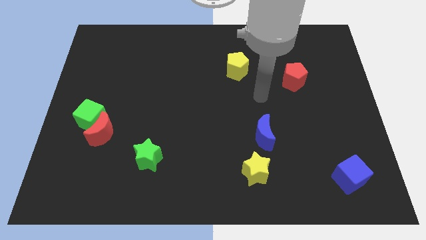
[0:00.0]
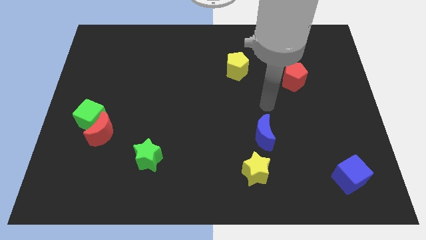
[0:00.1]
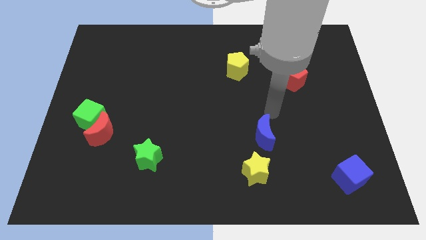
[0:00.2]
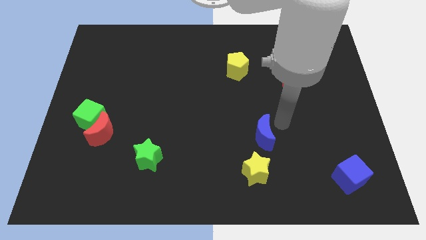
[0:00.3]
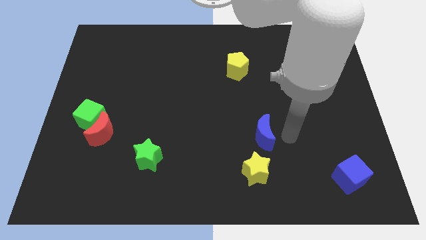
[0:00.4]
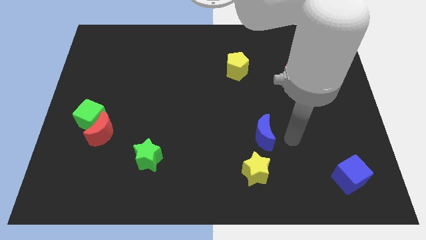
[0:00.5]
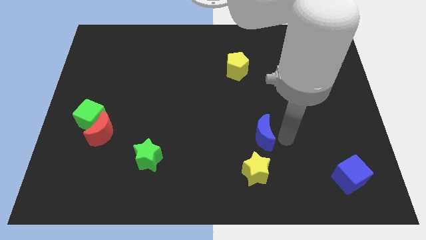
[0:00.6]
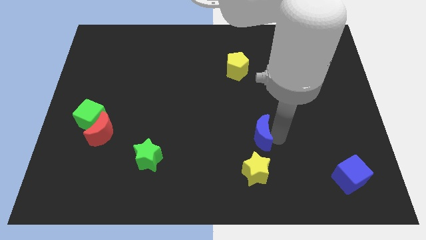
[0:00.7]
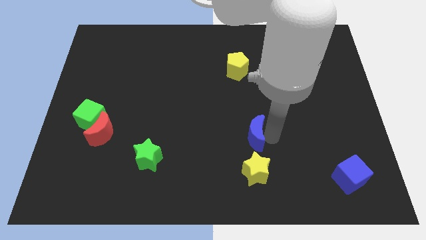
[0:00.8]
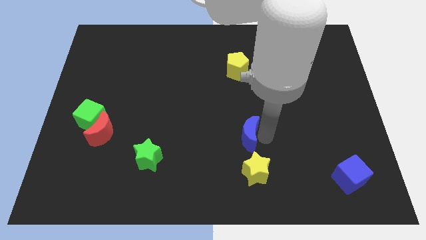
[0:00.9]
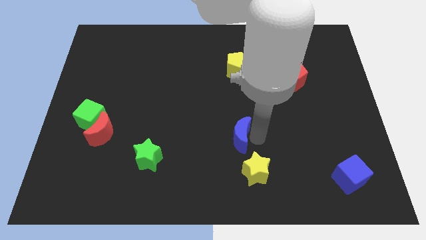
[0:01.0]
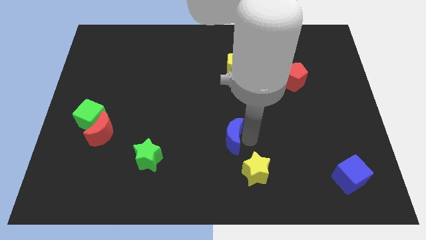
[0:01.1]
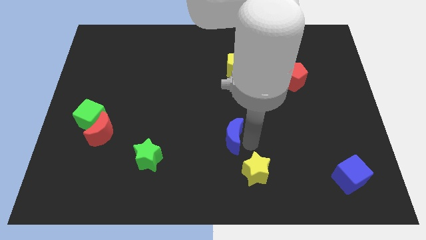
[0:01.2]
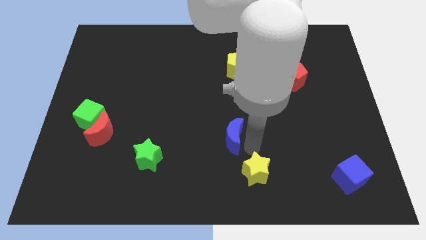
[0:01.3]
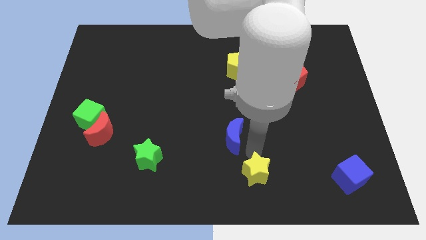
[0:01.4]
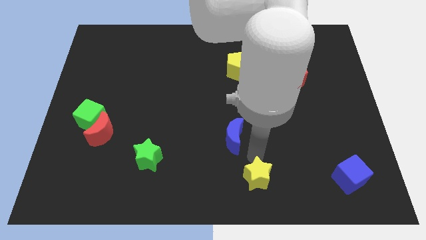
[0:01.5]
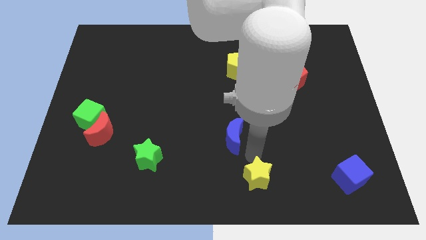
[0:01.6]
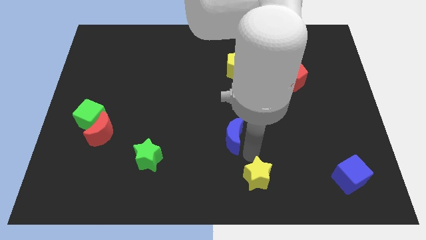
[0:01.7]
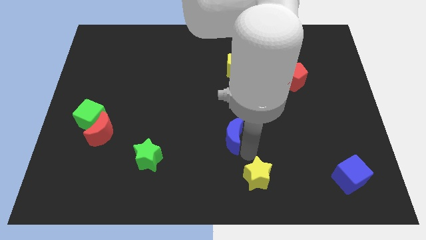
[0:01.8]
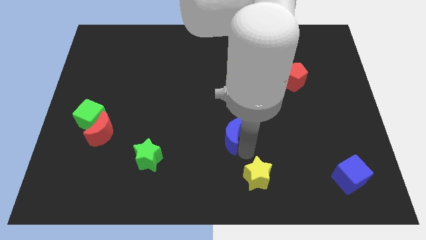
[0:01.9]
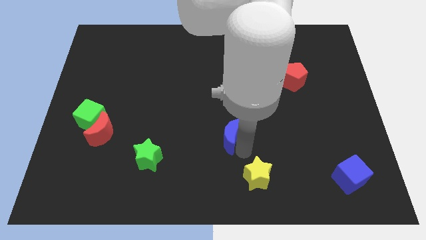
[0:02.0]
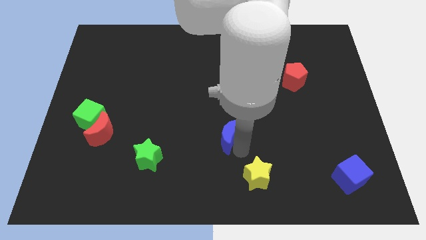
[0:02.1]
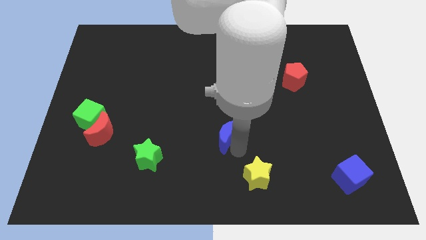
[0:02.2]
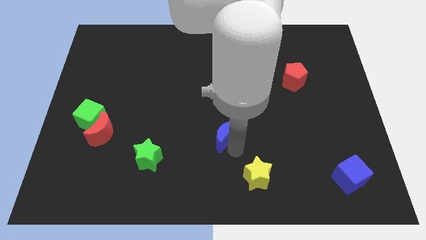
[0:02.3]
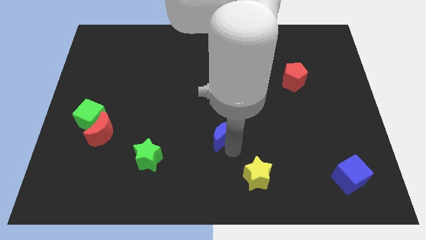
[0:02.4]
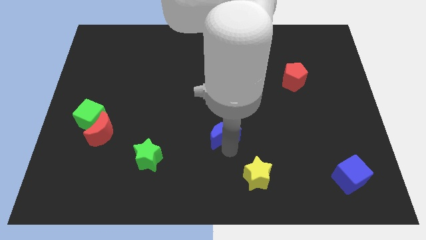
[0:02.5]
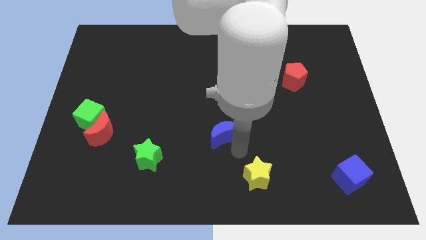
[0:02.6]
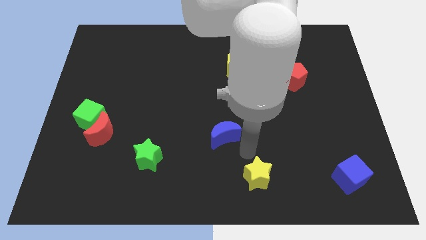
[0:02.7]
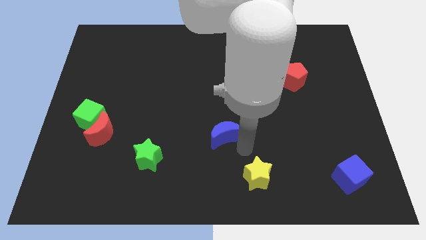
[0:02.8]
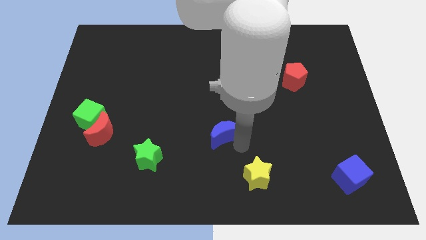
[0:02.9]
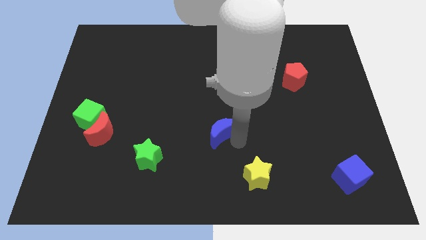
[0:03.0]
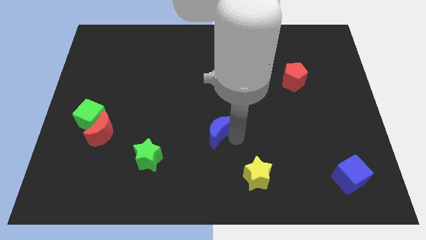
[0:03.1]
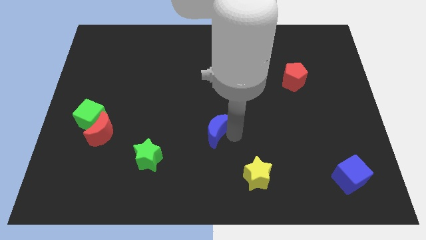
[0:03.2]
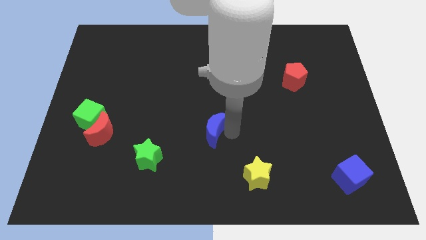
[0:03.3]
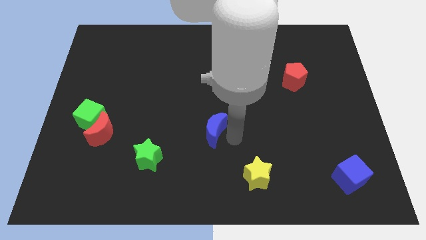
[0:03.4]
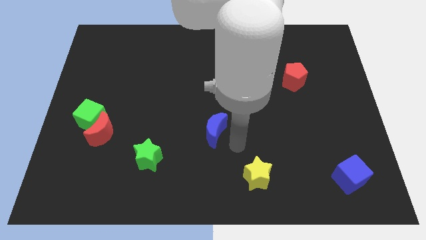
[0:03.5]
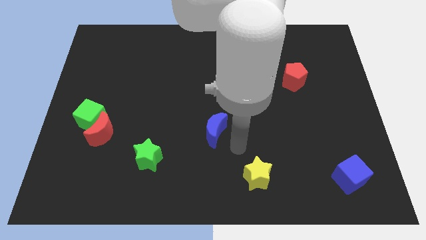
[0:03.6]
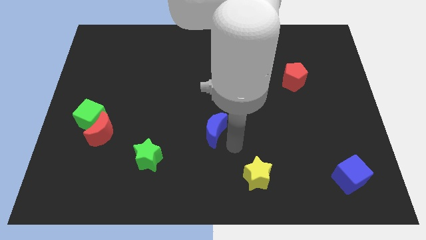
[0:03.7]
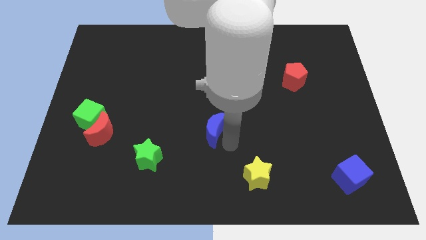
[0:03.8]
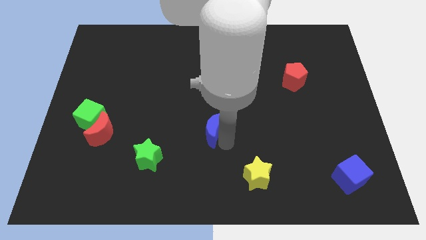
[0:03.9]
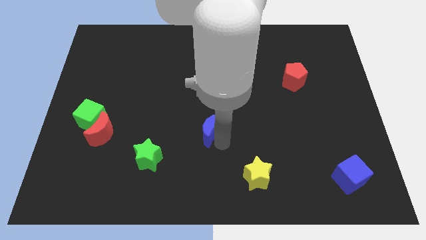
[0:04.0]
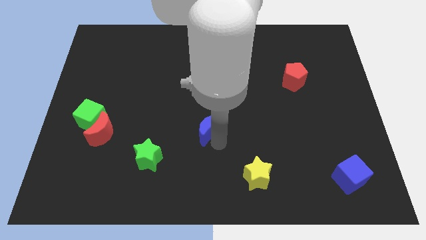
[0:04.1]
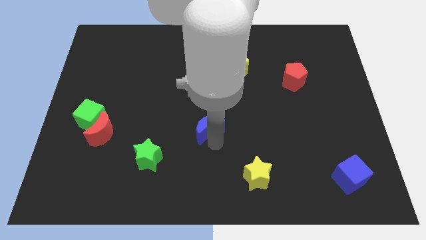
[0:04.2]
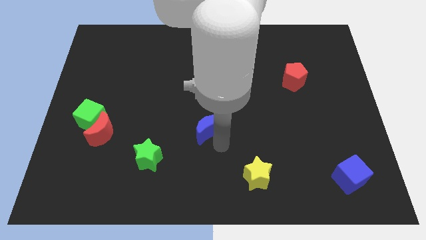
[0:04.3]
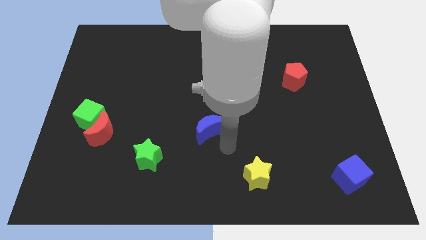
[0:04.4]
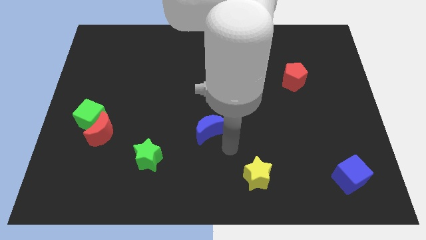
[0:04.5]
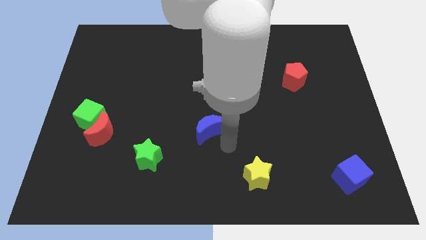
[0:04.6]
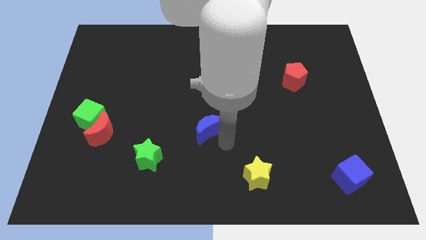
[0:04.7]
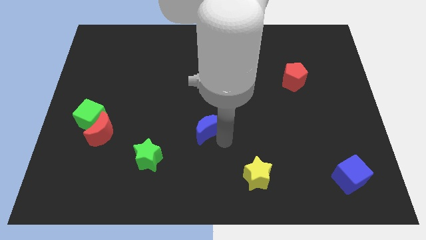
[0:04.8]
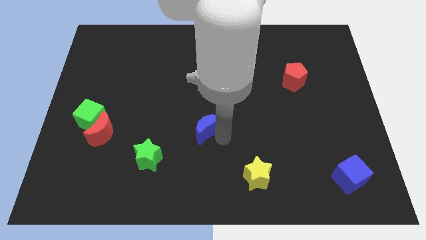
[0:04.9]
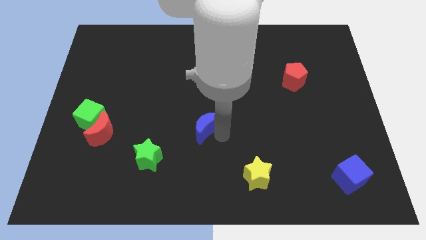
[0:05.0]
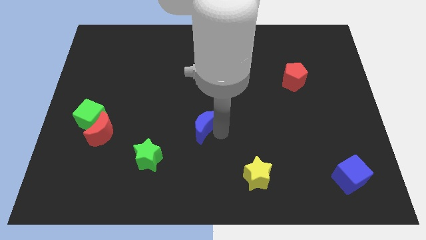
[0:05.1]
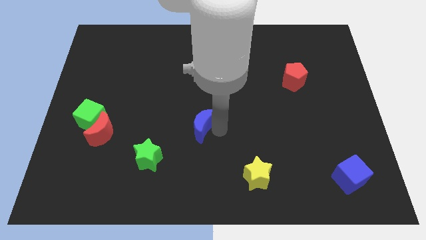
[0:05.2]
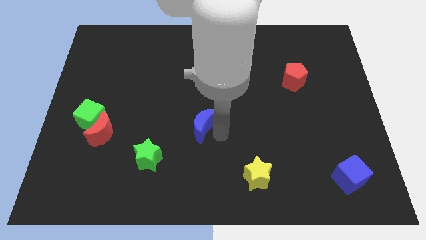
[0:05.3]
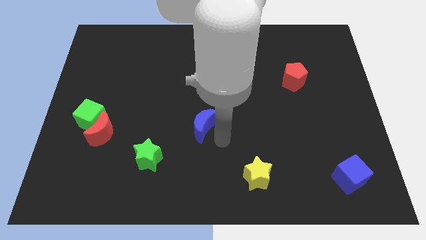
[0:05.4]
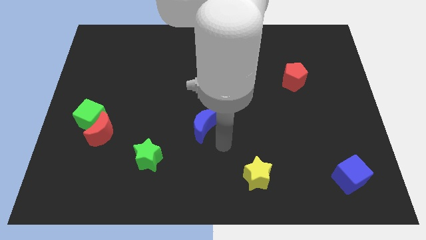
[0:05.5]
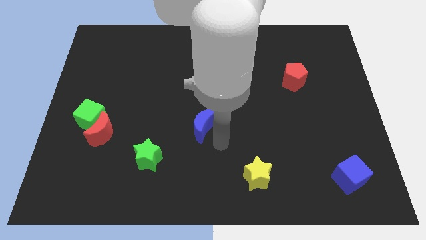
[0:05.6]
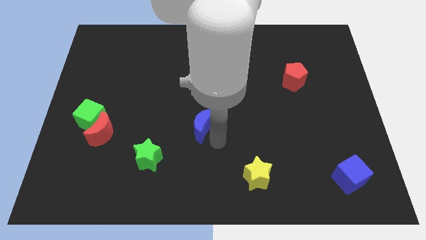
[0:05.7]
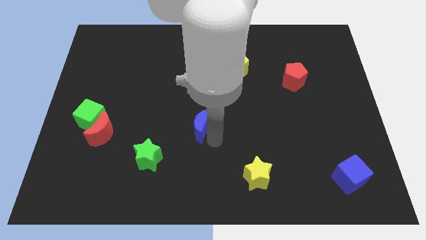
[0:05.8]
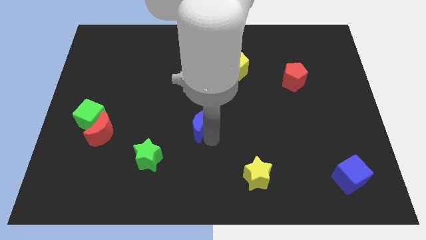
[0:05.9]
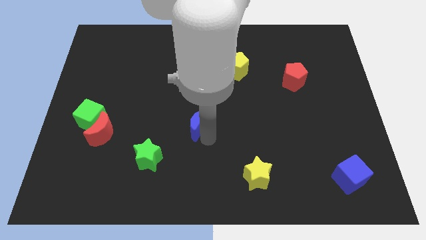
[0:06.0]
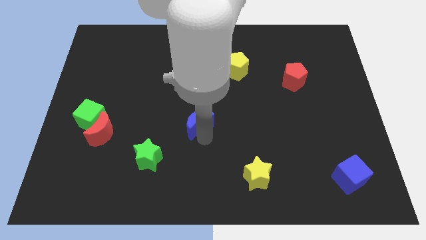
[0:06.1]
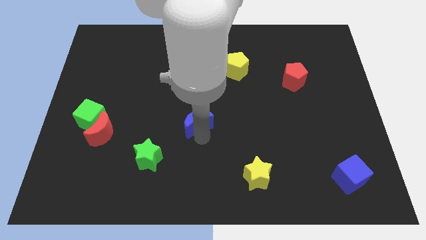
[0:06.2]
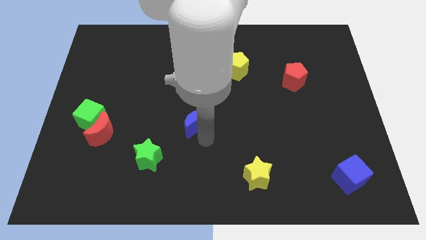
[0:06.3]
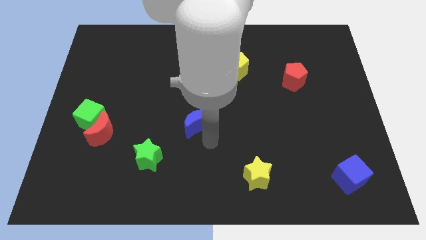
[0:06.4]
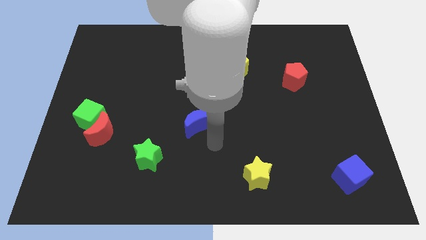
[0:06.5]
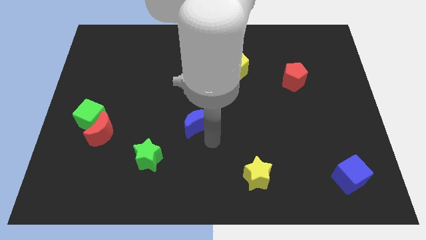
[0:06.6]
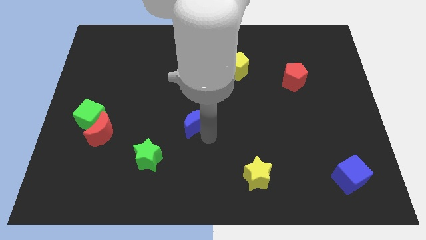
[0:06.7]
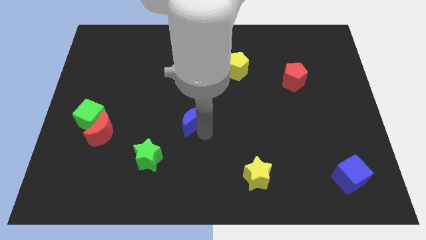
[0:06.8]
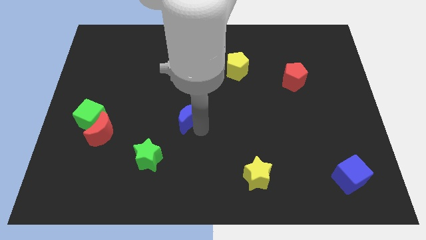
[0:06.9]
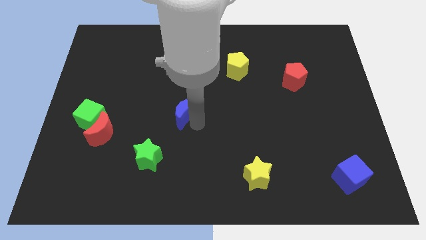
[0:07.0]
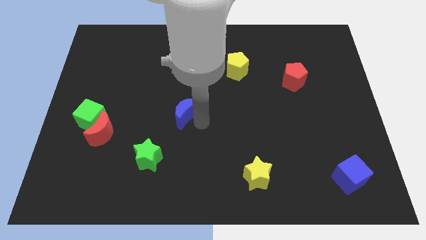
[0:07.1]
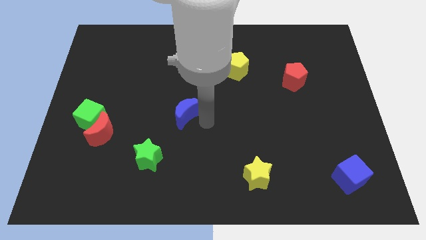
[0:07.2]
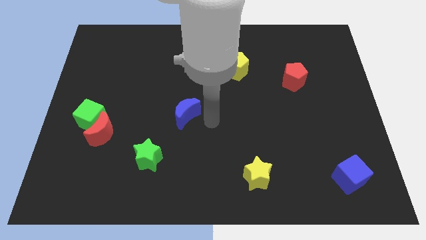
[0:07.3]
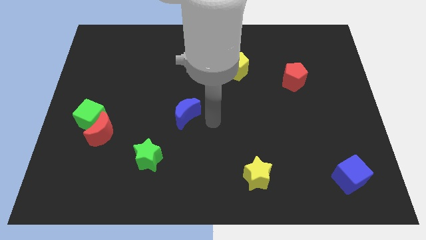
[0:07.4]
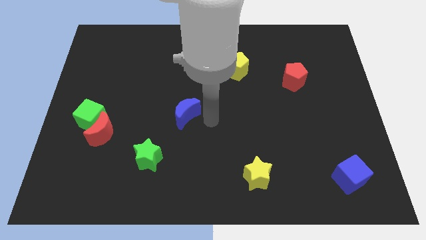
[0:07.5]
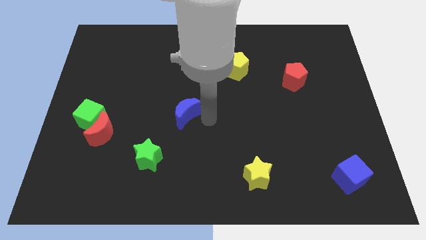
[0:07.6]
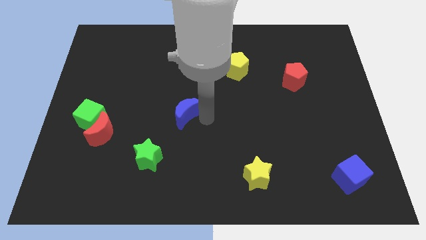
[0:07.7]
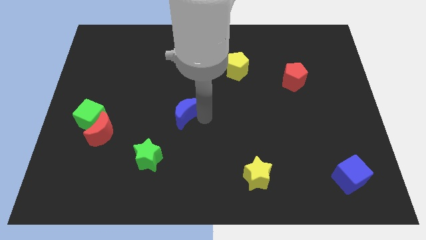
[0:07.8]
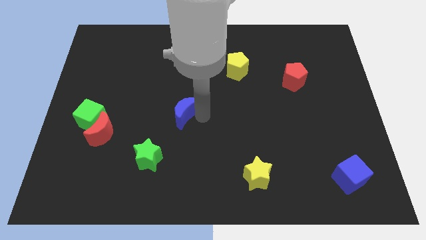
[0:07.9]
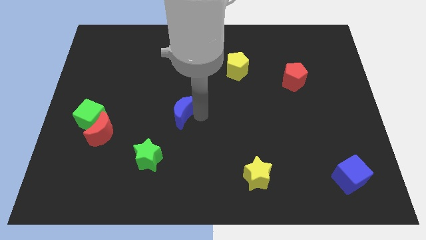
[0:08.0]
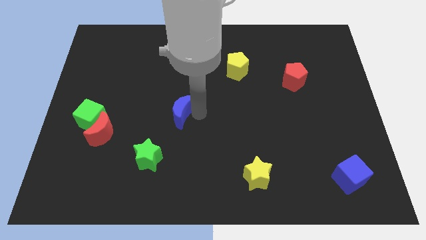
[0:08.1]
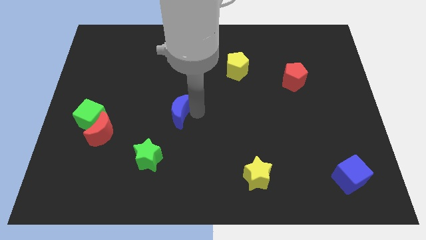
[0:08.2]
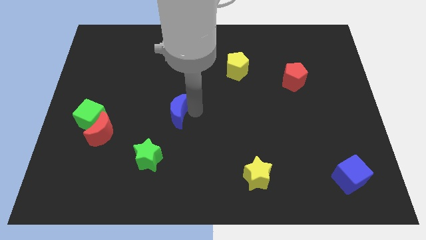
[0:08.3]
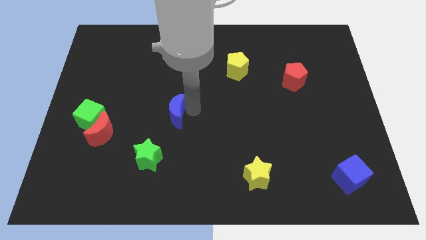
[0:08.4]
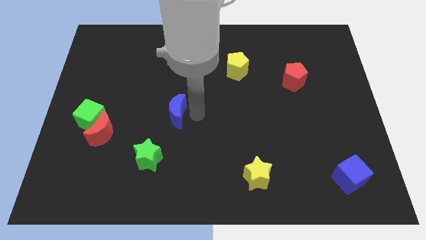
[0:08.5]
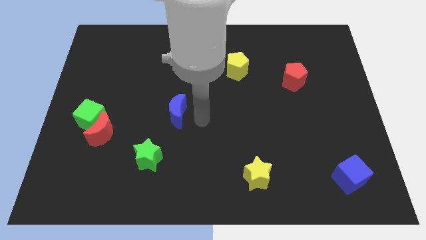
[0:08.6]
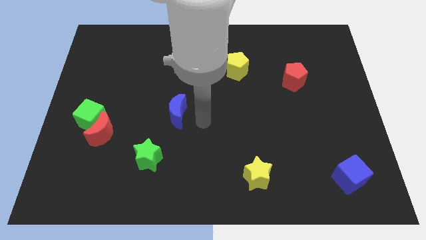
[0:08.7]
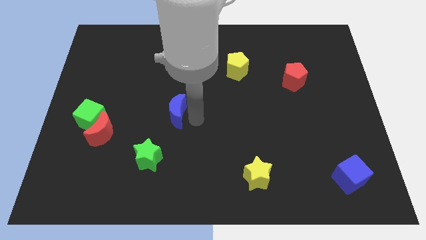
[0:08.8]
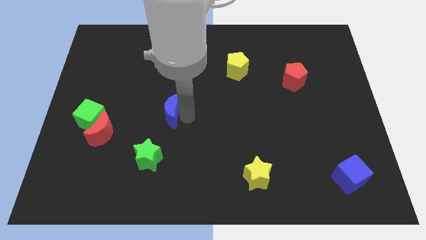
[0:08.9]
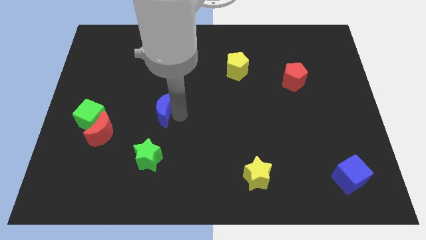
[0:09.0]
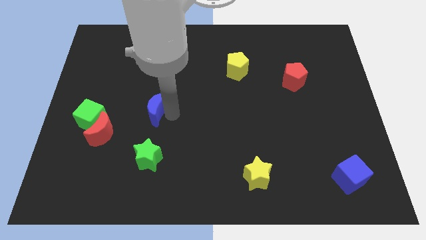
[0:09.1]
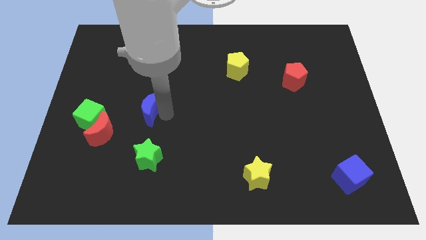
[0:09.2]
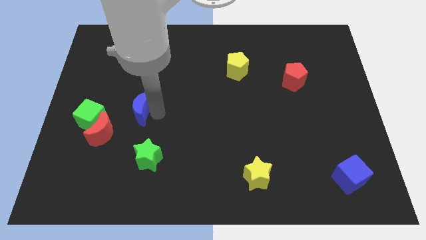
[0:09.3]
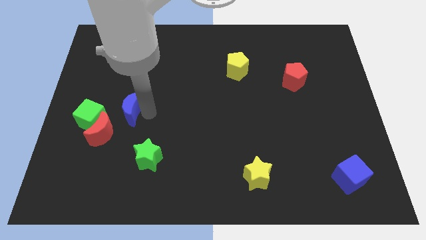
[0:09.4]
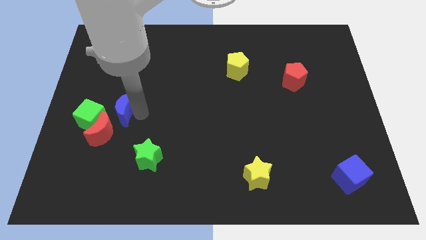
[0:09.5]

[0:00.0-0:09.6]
move the blue moon to the top side of the red moon
